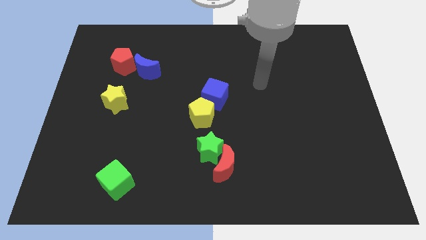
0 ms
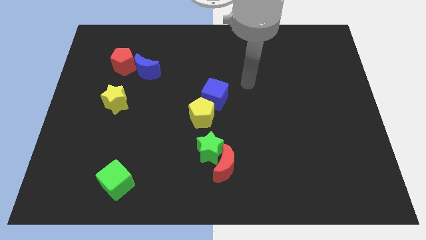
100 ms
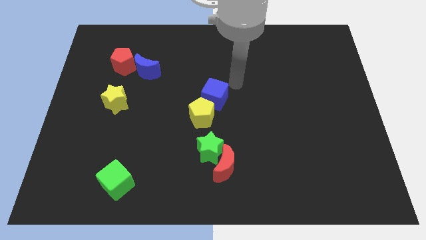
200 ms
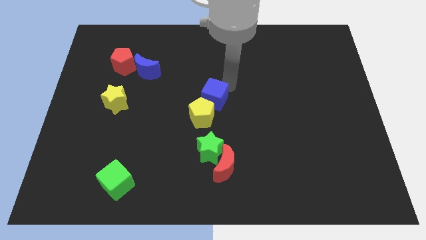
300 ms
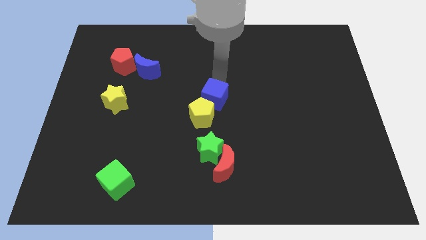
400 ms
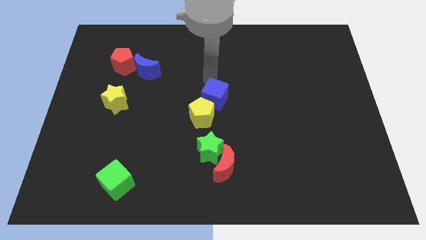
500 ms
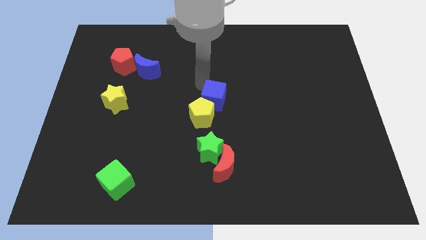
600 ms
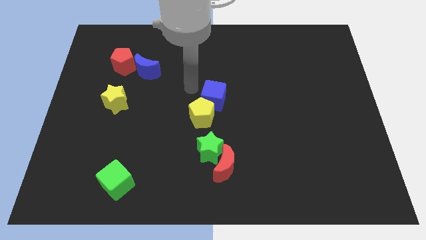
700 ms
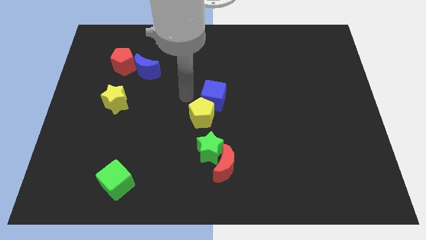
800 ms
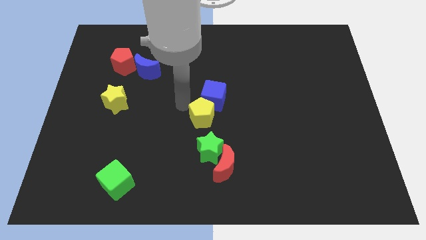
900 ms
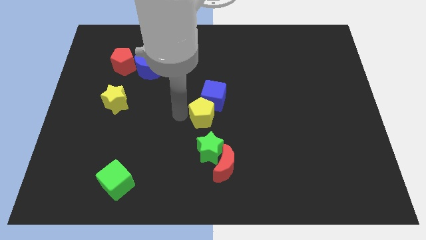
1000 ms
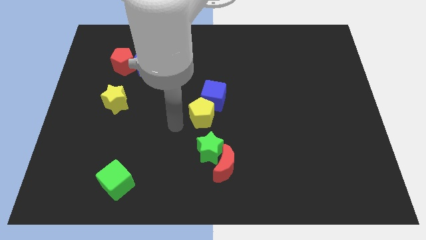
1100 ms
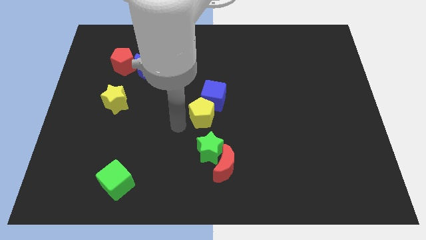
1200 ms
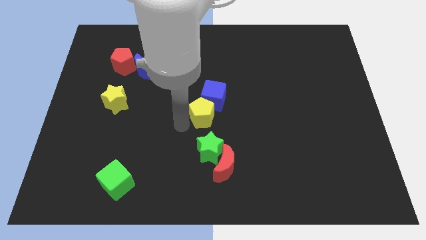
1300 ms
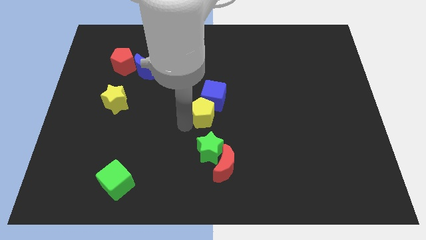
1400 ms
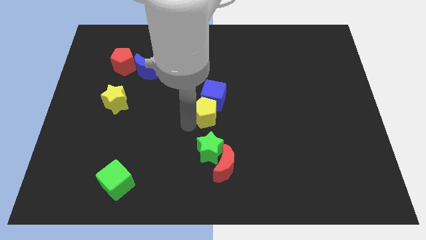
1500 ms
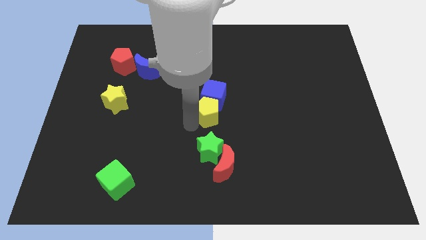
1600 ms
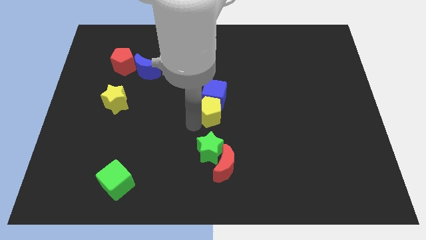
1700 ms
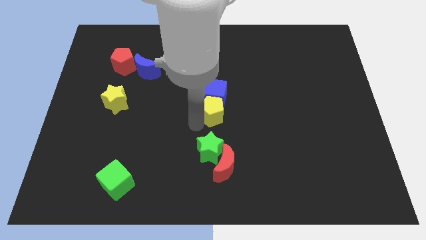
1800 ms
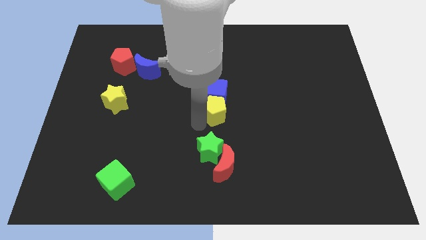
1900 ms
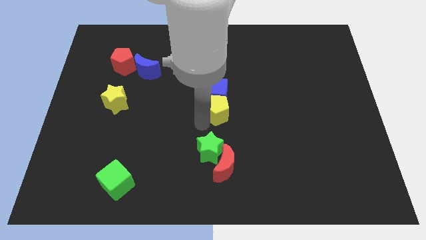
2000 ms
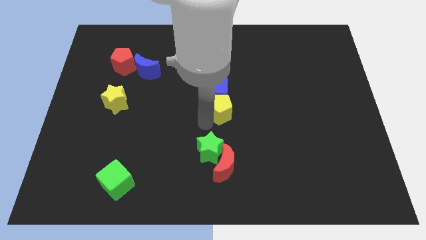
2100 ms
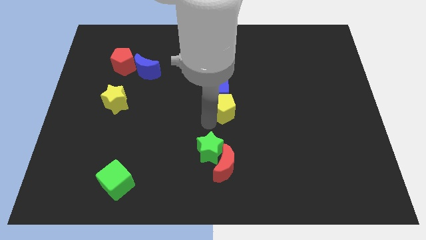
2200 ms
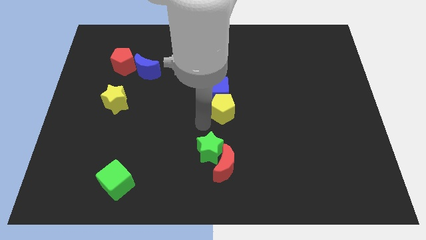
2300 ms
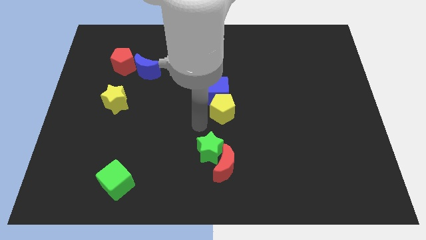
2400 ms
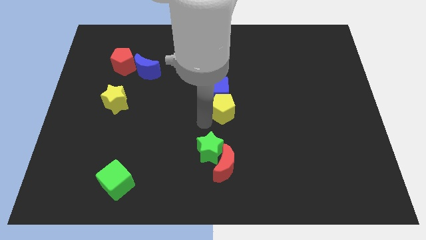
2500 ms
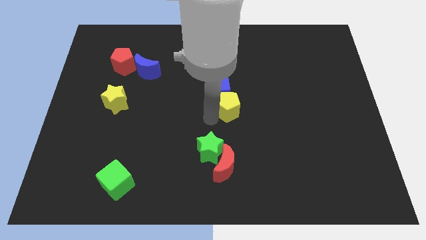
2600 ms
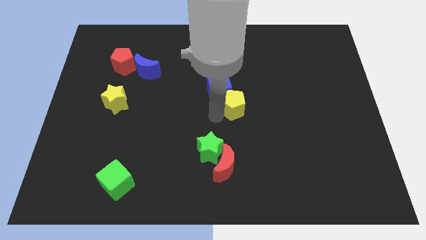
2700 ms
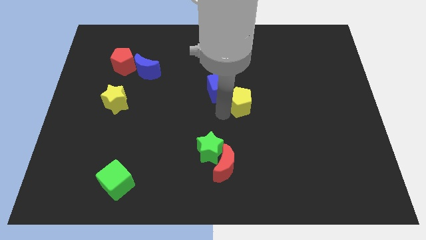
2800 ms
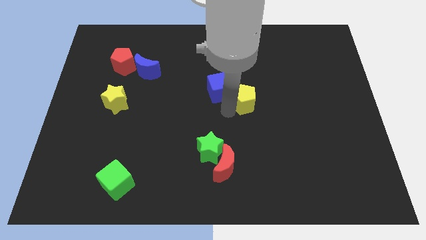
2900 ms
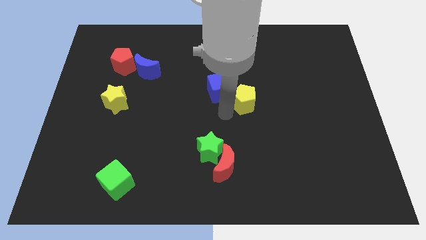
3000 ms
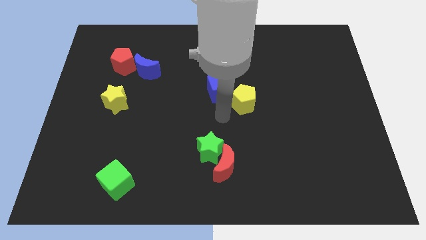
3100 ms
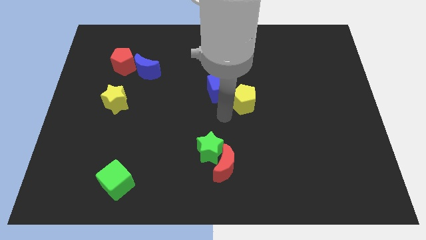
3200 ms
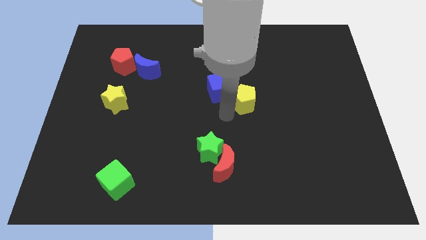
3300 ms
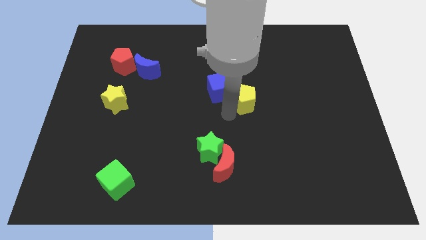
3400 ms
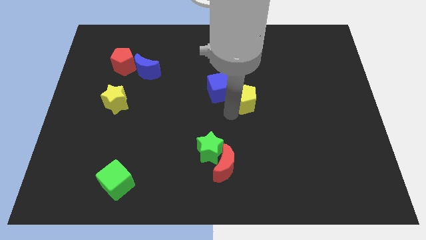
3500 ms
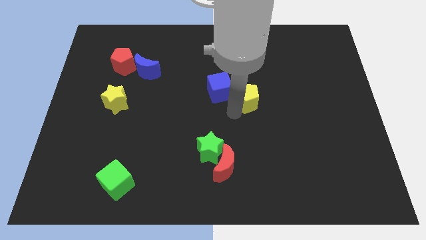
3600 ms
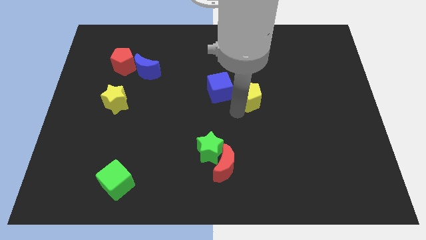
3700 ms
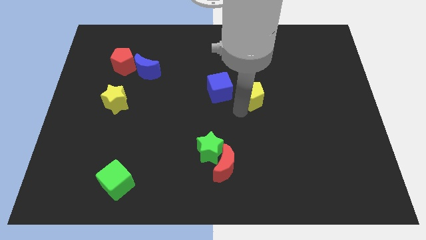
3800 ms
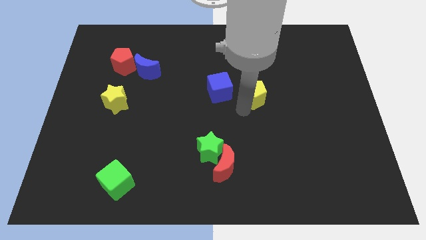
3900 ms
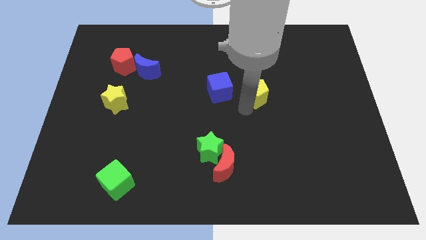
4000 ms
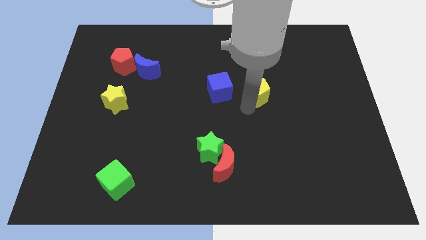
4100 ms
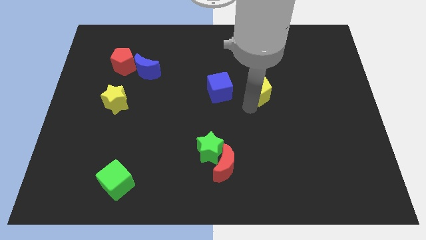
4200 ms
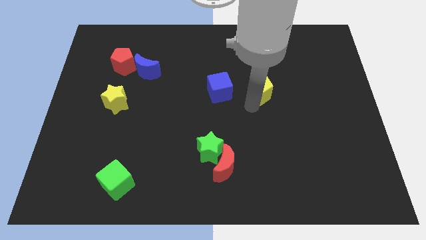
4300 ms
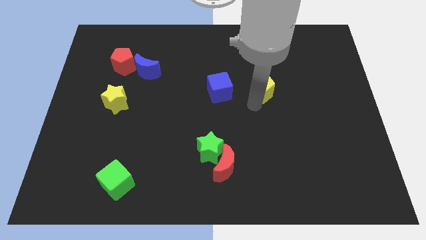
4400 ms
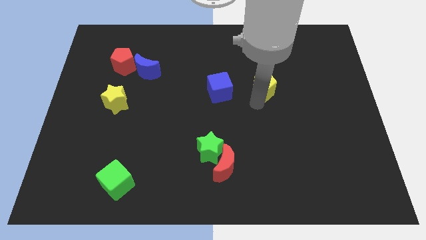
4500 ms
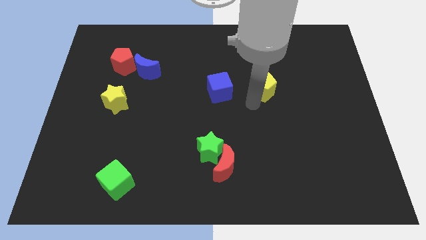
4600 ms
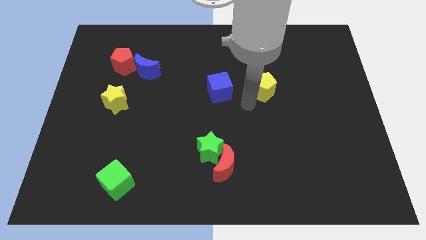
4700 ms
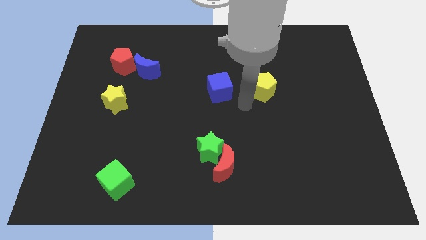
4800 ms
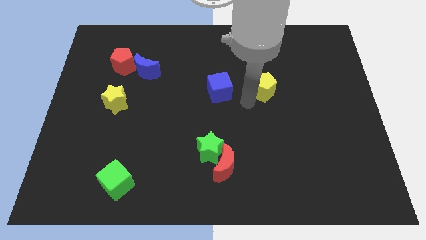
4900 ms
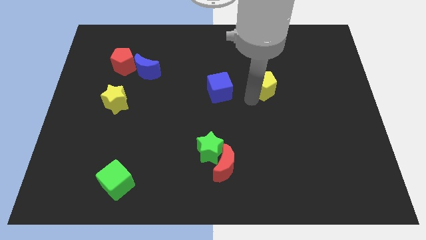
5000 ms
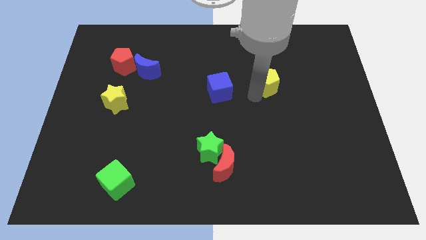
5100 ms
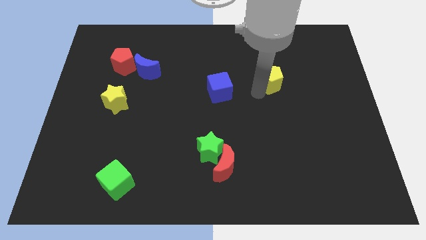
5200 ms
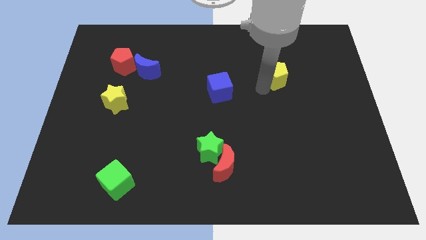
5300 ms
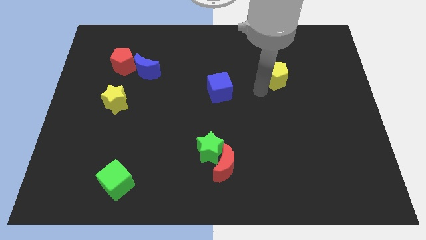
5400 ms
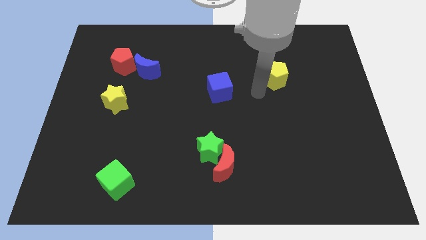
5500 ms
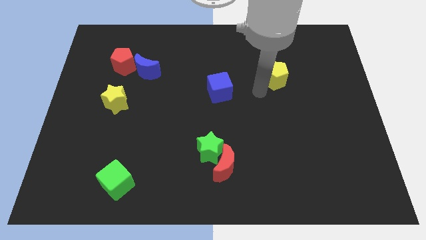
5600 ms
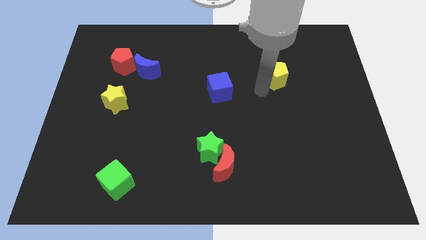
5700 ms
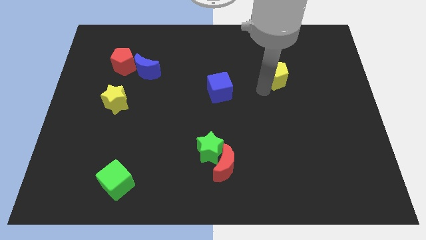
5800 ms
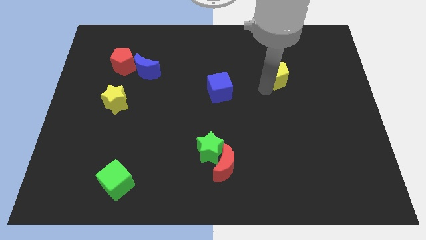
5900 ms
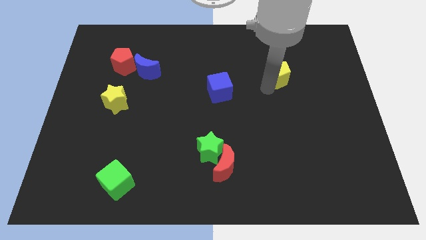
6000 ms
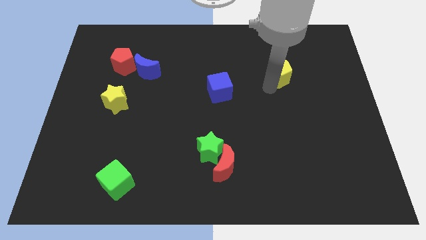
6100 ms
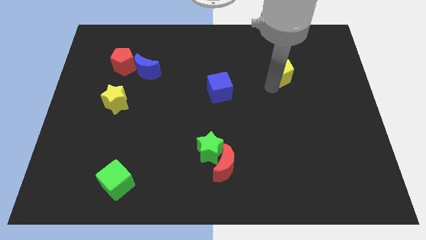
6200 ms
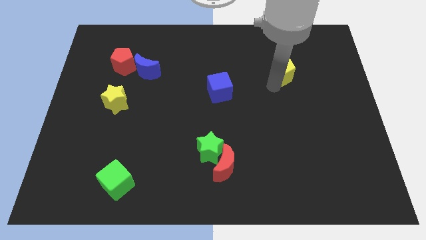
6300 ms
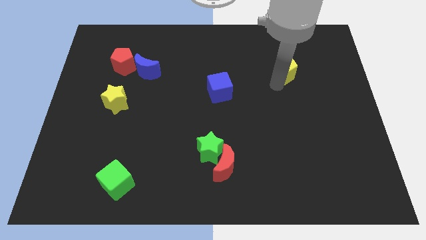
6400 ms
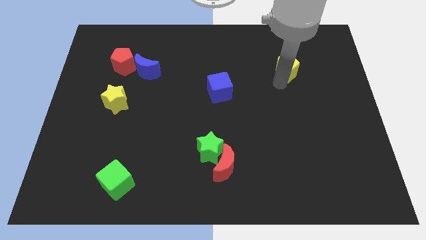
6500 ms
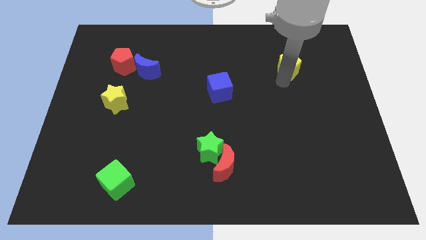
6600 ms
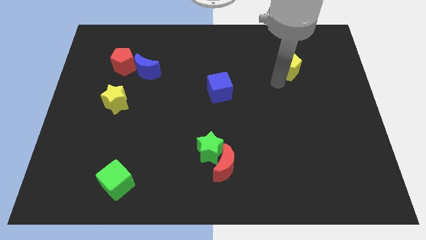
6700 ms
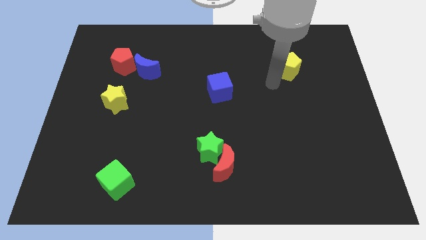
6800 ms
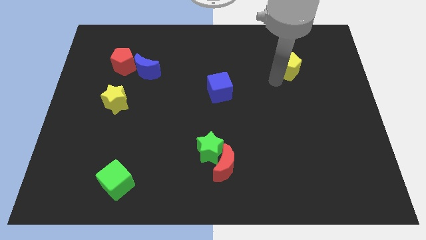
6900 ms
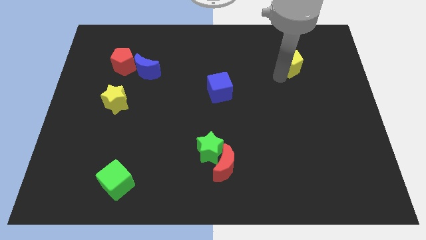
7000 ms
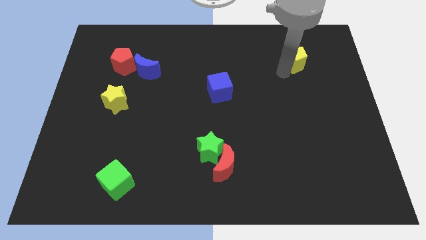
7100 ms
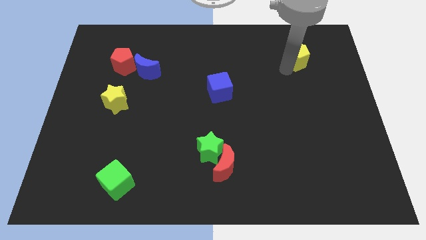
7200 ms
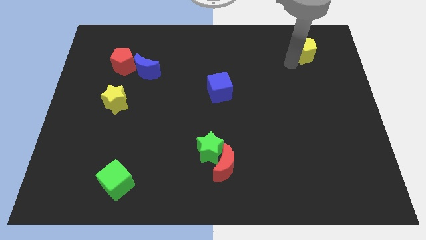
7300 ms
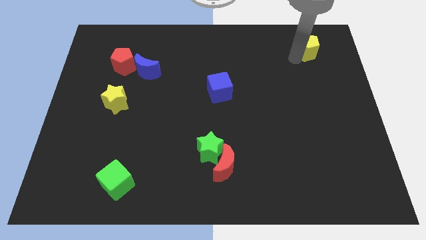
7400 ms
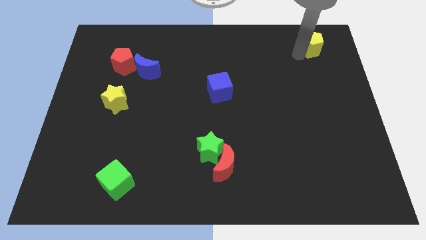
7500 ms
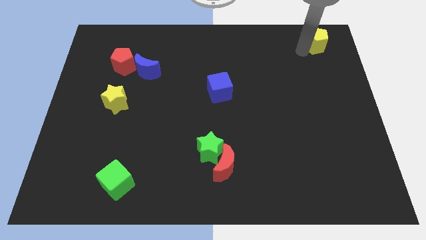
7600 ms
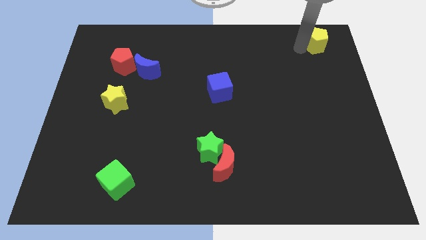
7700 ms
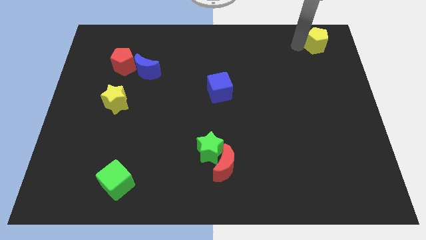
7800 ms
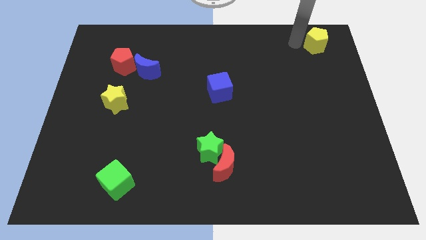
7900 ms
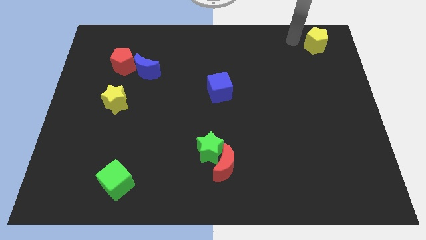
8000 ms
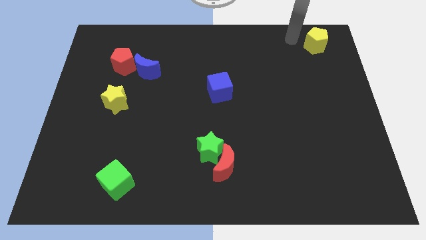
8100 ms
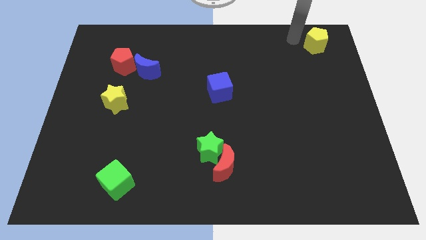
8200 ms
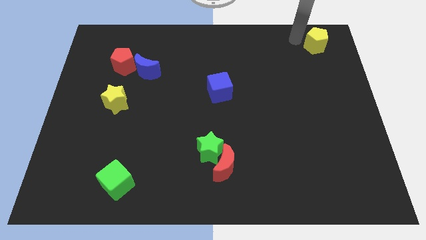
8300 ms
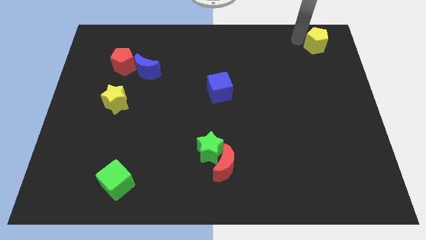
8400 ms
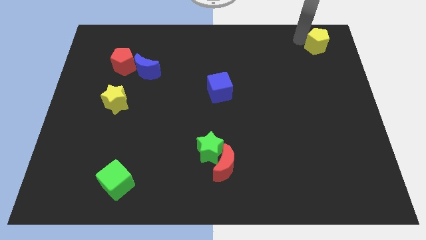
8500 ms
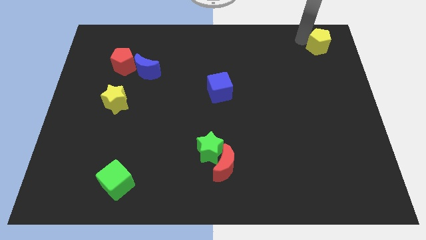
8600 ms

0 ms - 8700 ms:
move the yellow pentagon to the top right
